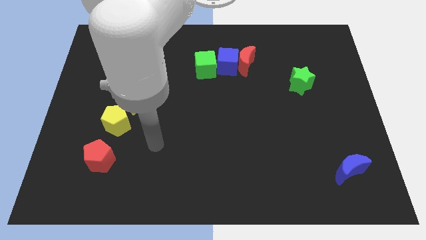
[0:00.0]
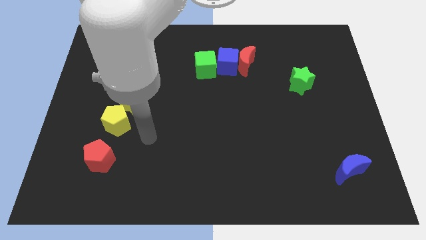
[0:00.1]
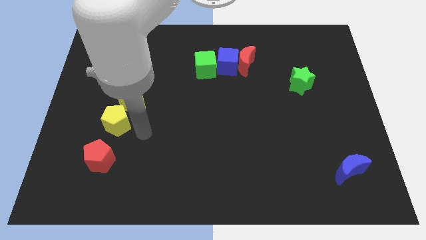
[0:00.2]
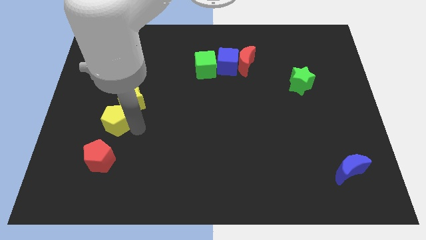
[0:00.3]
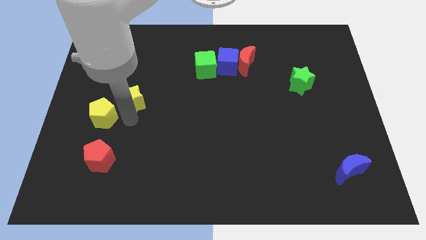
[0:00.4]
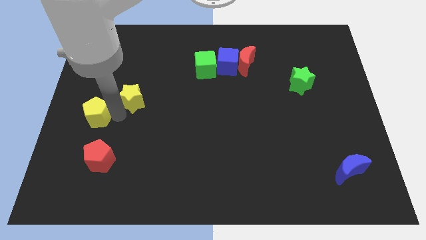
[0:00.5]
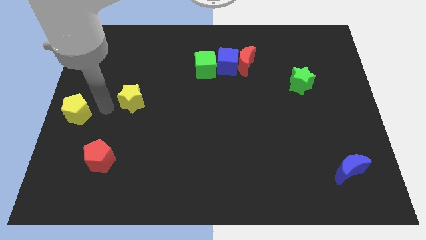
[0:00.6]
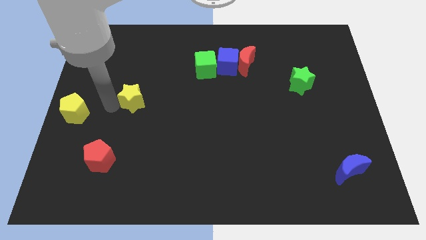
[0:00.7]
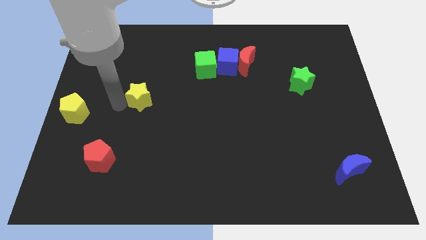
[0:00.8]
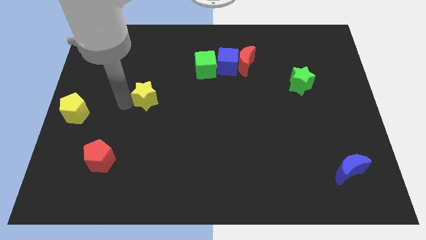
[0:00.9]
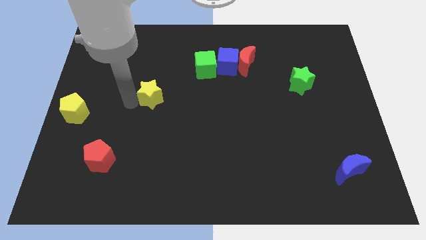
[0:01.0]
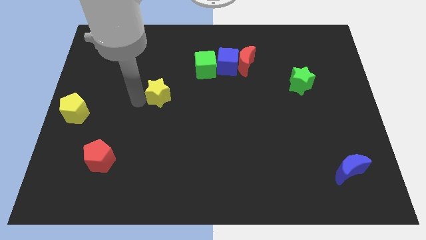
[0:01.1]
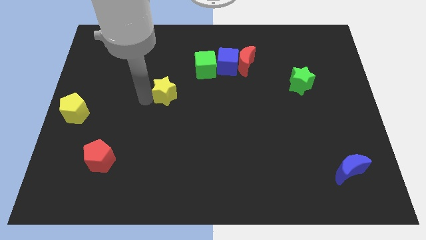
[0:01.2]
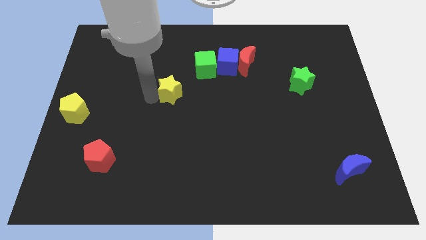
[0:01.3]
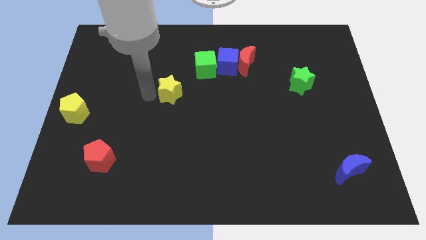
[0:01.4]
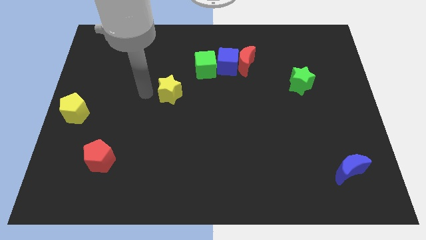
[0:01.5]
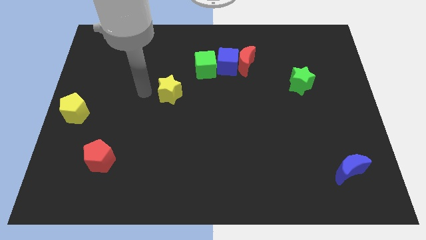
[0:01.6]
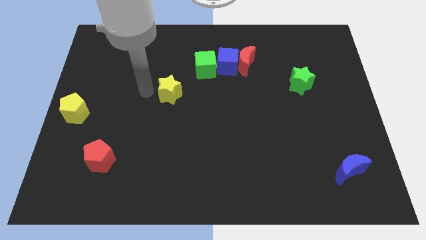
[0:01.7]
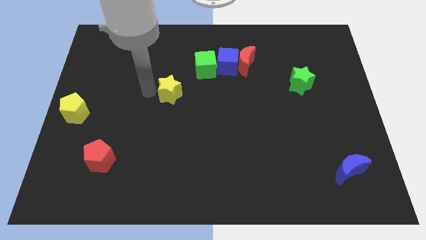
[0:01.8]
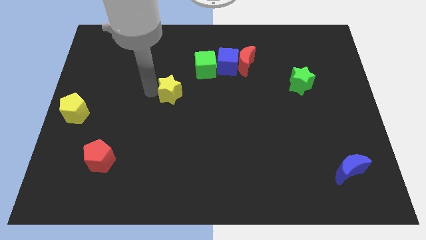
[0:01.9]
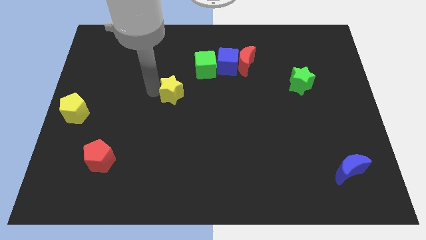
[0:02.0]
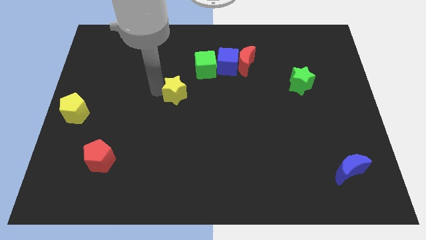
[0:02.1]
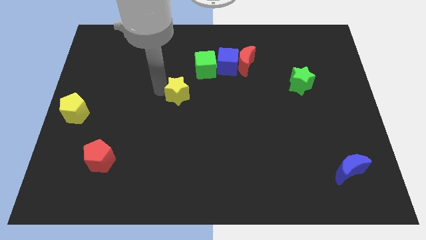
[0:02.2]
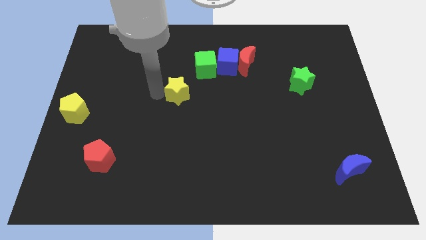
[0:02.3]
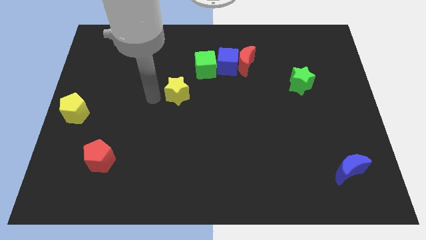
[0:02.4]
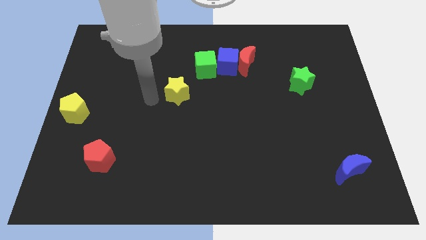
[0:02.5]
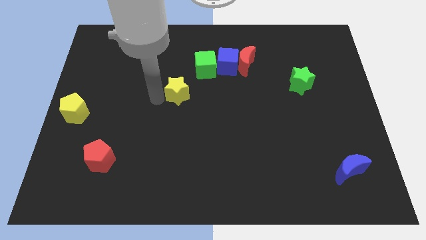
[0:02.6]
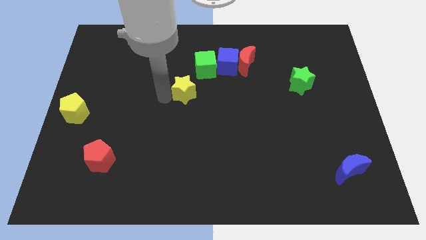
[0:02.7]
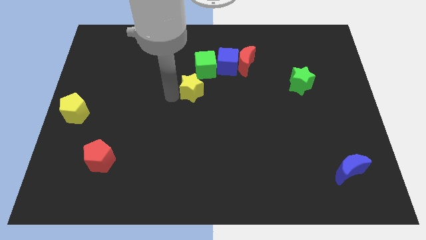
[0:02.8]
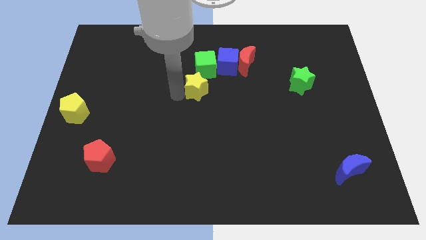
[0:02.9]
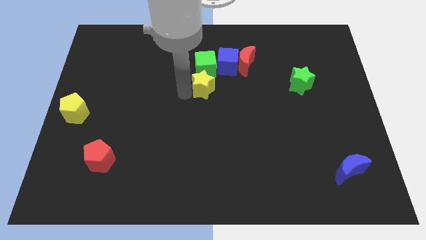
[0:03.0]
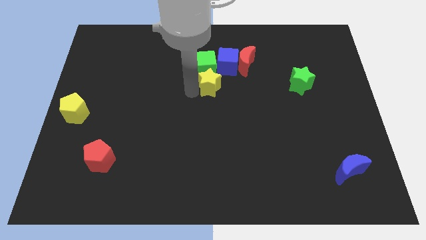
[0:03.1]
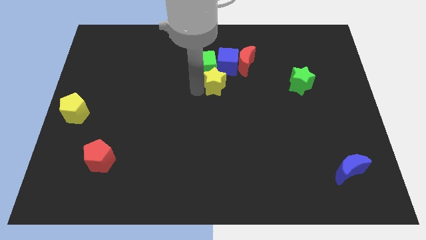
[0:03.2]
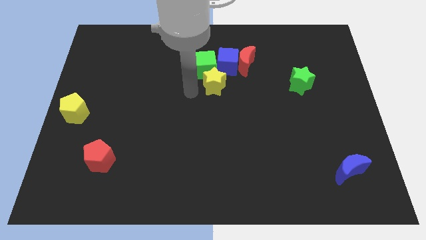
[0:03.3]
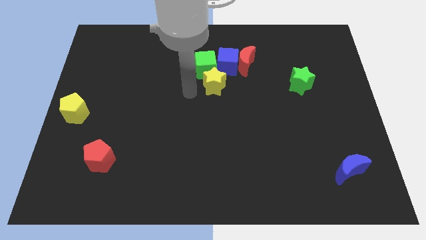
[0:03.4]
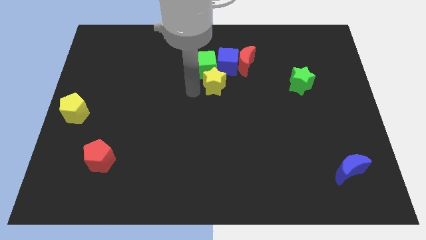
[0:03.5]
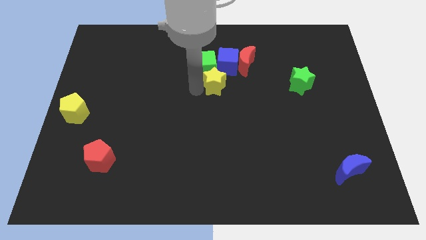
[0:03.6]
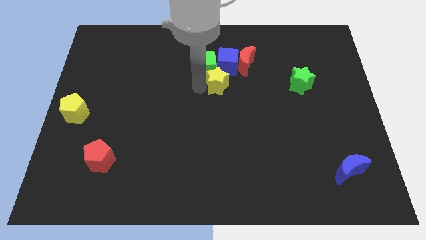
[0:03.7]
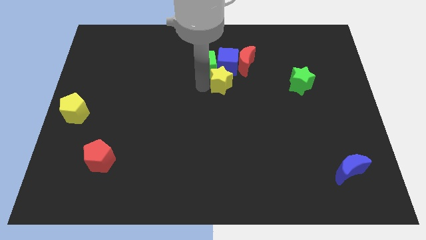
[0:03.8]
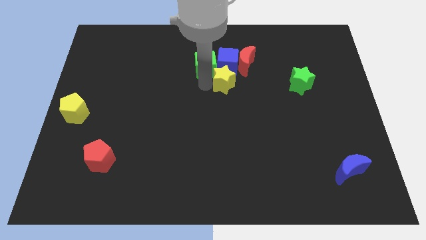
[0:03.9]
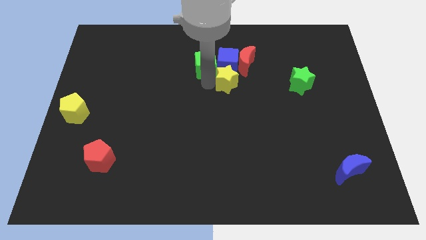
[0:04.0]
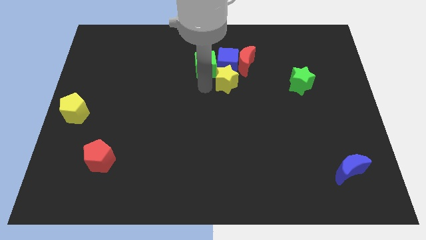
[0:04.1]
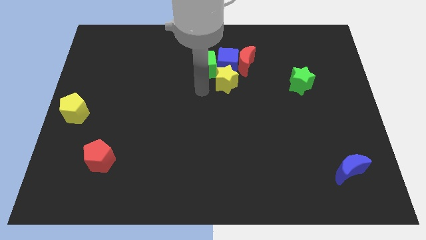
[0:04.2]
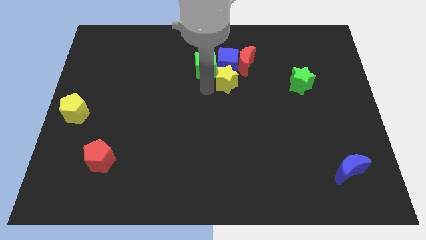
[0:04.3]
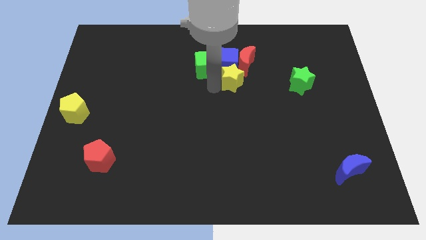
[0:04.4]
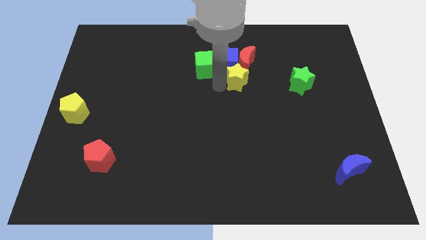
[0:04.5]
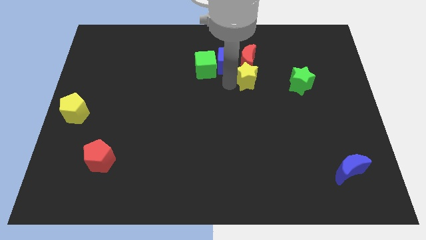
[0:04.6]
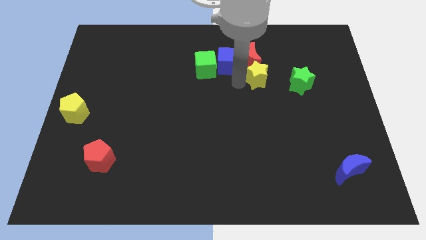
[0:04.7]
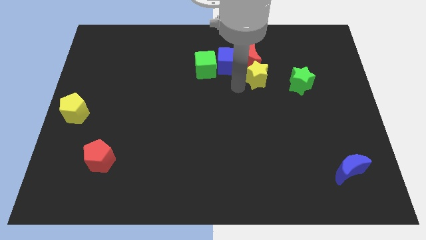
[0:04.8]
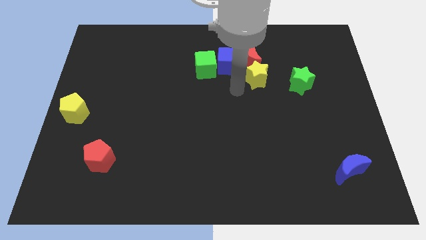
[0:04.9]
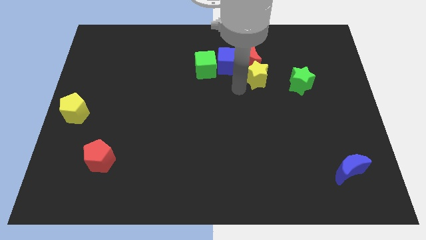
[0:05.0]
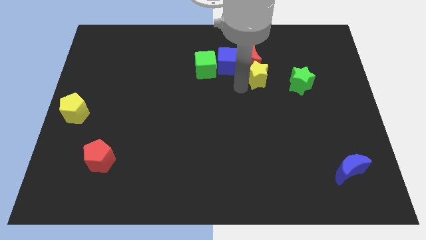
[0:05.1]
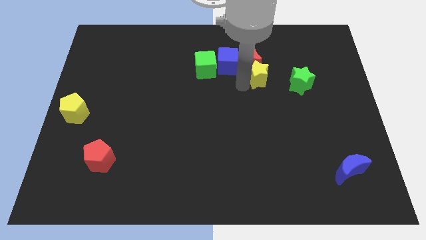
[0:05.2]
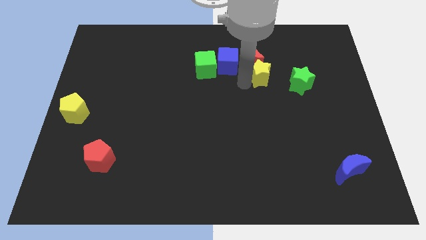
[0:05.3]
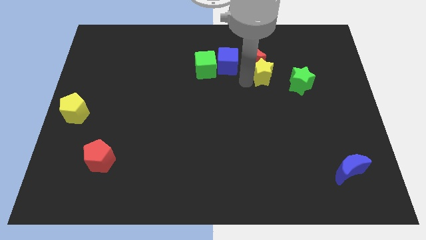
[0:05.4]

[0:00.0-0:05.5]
put the yellow star diagonally up and to the left of the green star

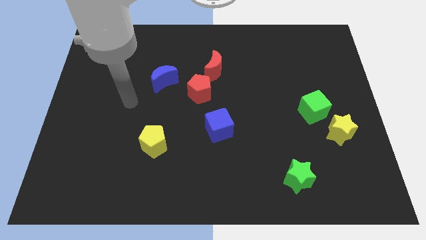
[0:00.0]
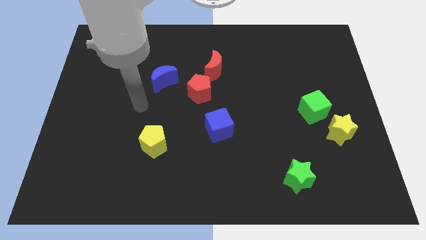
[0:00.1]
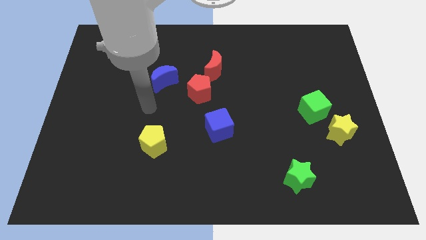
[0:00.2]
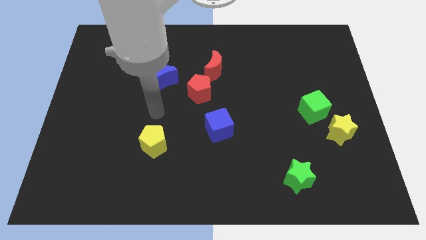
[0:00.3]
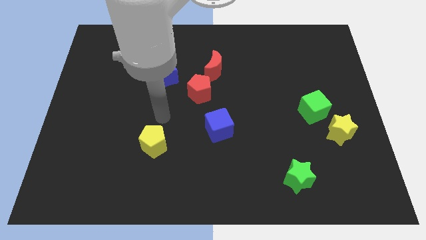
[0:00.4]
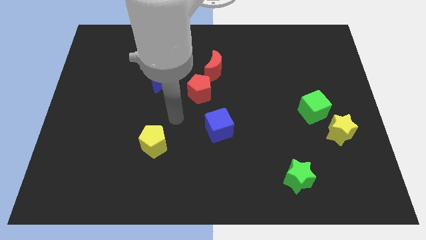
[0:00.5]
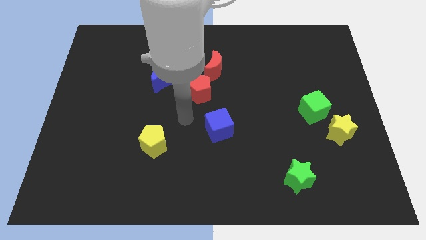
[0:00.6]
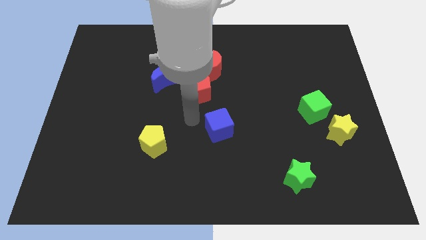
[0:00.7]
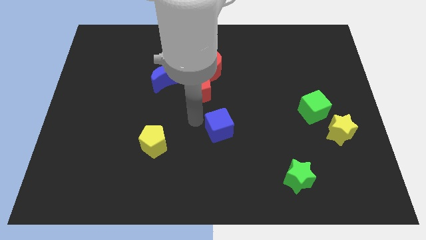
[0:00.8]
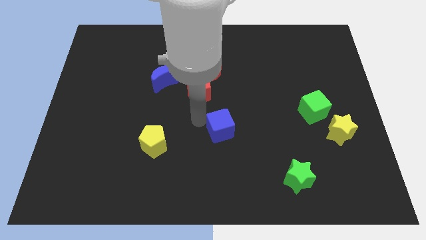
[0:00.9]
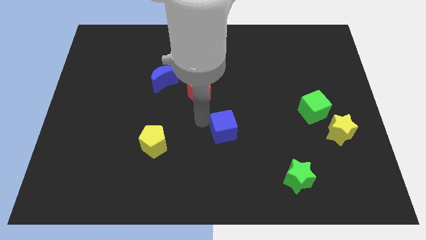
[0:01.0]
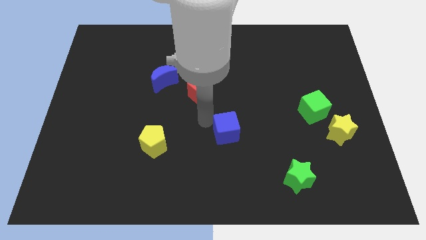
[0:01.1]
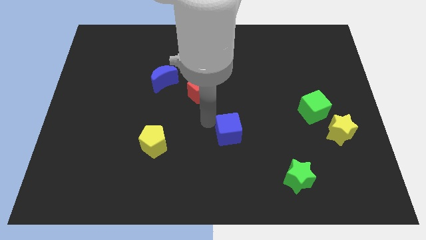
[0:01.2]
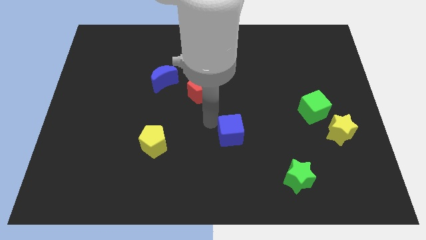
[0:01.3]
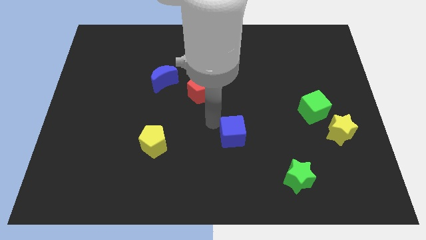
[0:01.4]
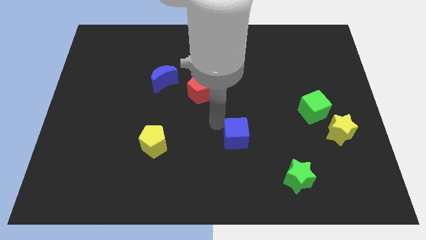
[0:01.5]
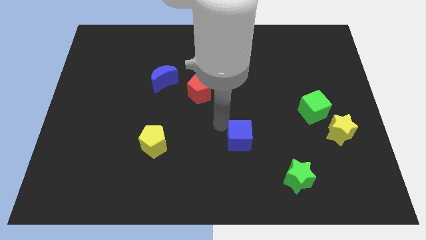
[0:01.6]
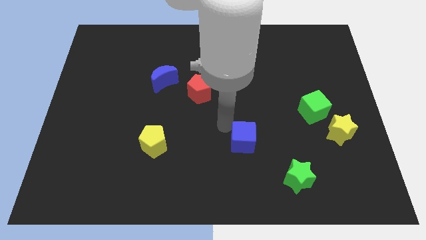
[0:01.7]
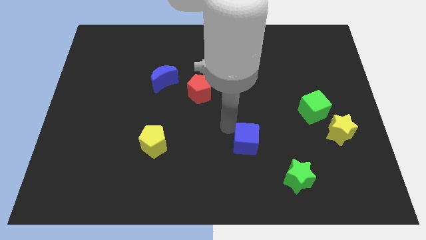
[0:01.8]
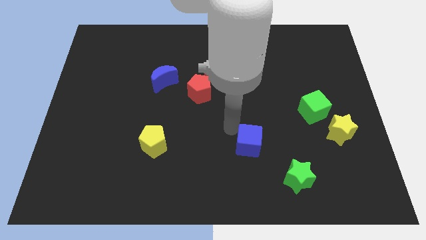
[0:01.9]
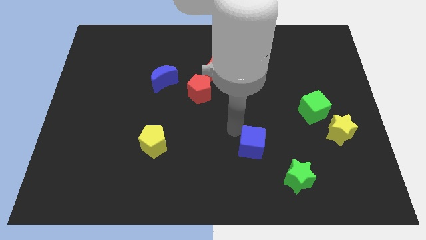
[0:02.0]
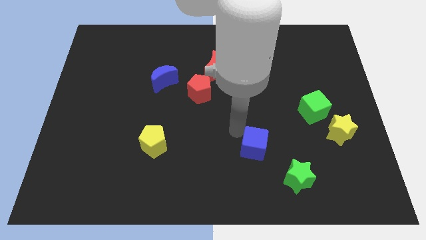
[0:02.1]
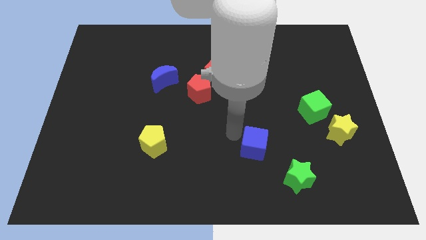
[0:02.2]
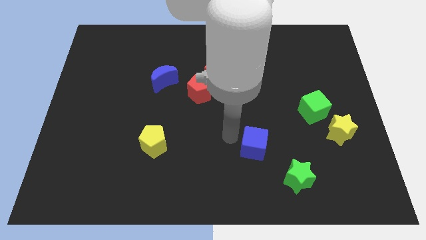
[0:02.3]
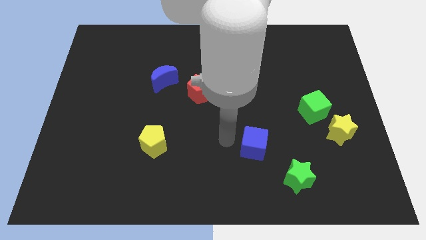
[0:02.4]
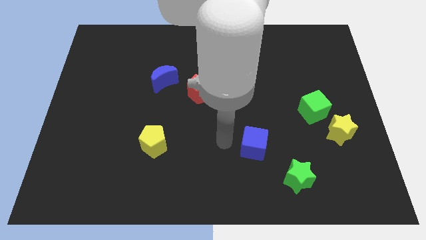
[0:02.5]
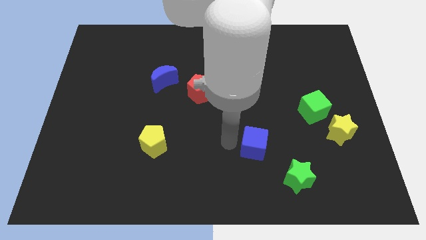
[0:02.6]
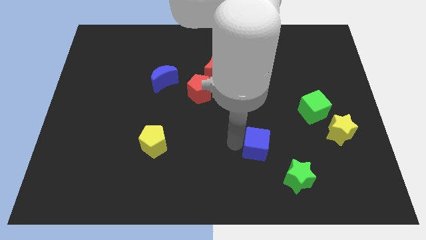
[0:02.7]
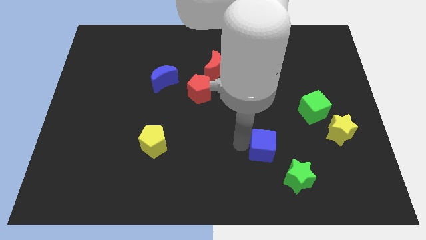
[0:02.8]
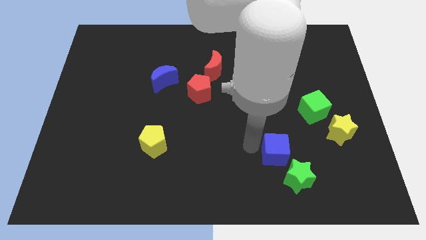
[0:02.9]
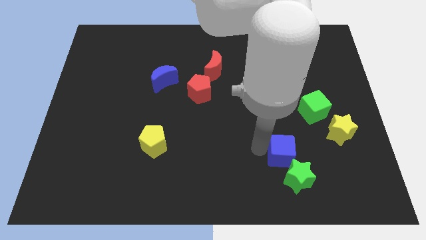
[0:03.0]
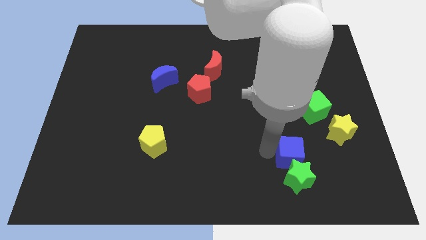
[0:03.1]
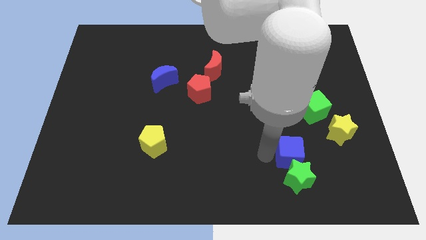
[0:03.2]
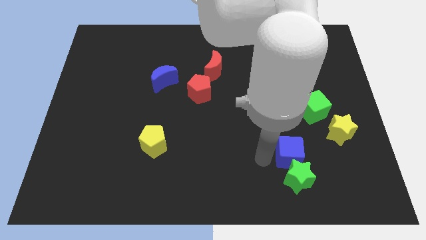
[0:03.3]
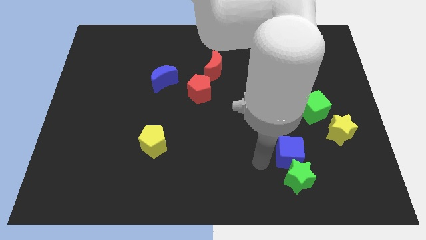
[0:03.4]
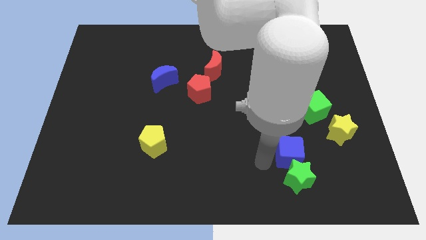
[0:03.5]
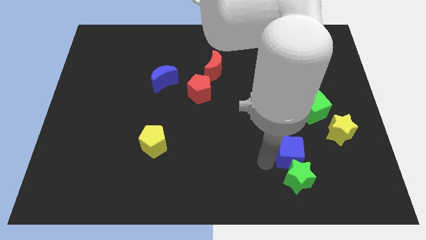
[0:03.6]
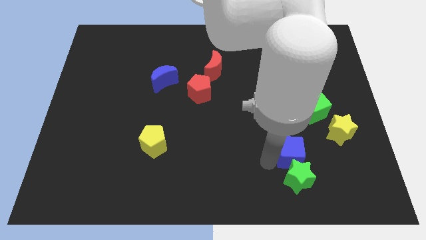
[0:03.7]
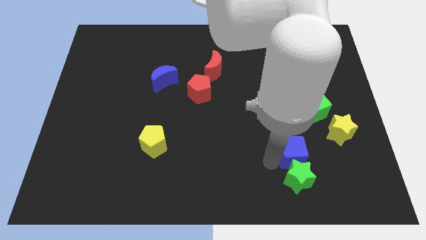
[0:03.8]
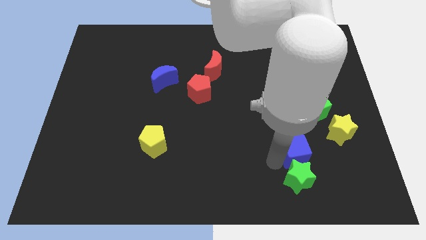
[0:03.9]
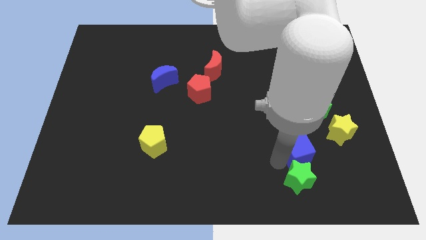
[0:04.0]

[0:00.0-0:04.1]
put the blue cube diagonally down and to the left of the yellow star
